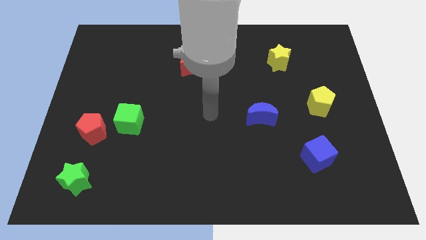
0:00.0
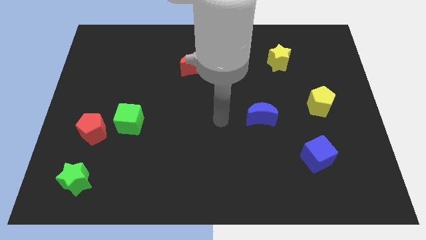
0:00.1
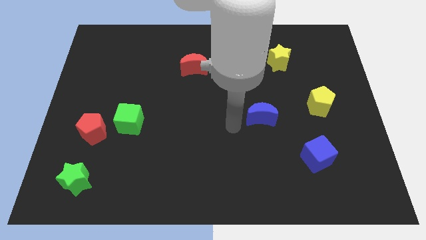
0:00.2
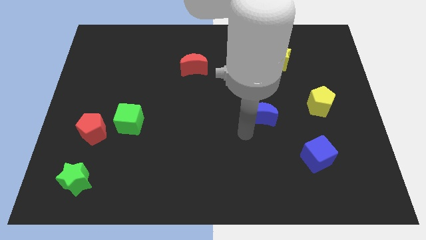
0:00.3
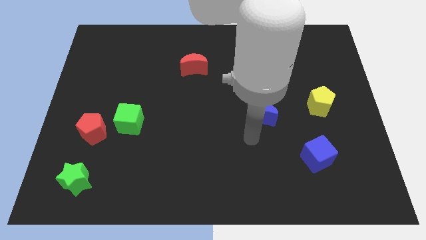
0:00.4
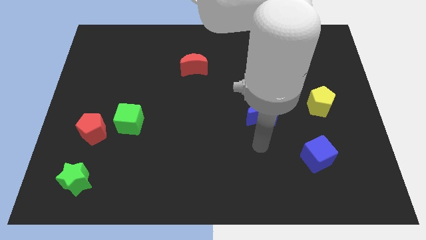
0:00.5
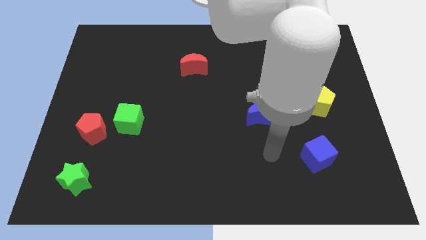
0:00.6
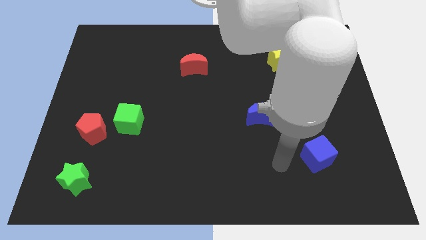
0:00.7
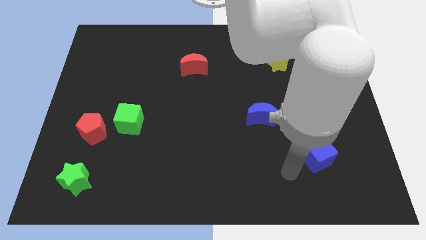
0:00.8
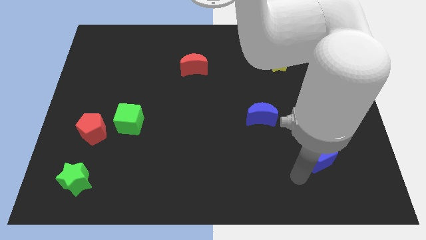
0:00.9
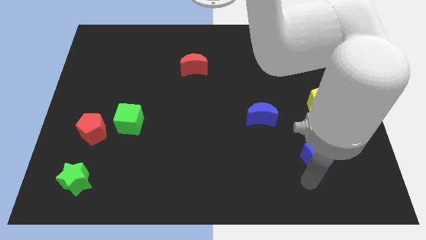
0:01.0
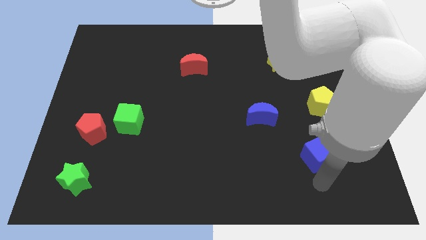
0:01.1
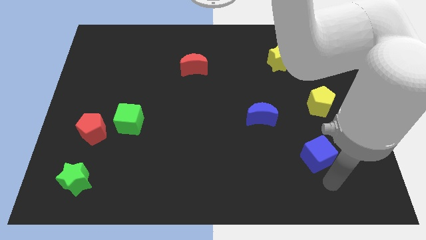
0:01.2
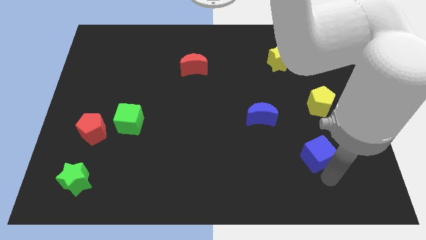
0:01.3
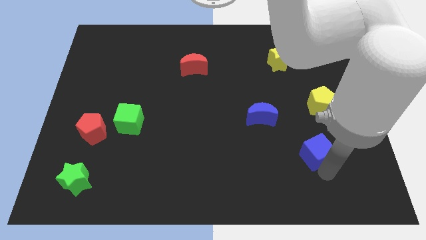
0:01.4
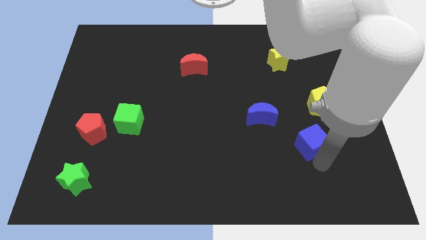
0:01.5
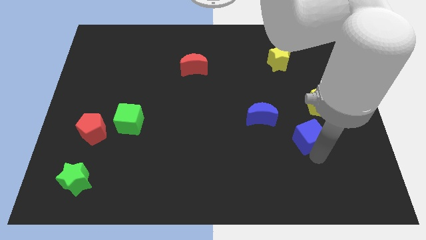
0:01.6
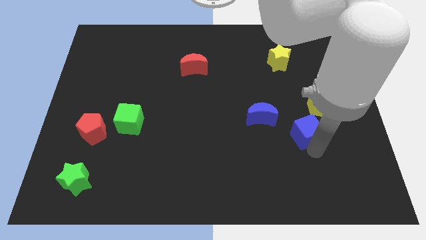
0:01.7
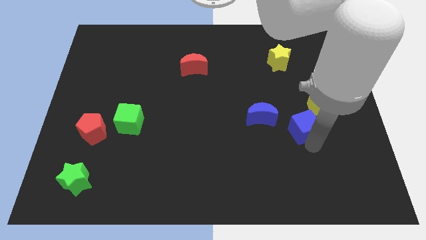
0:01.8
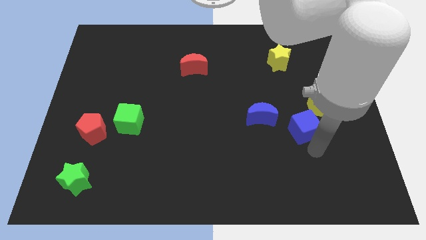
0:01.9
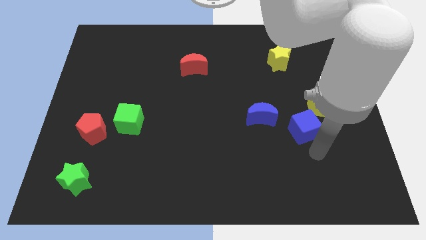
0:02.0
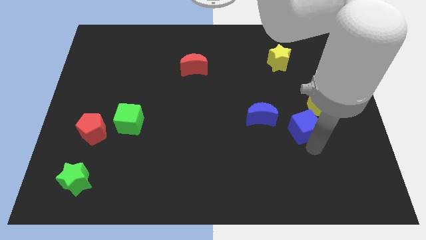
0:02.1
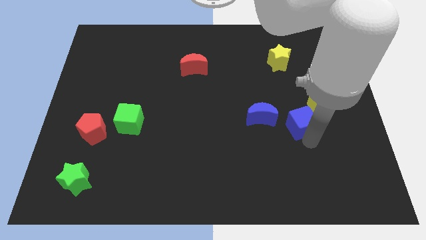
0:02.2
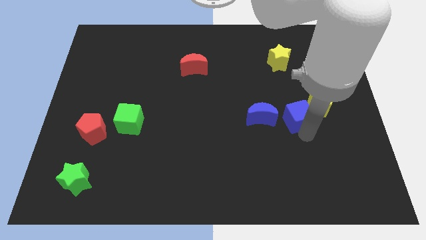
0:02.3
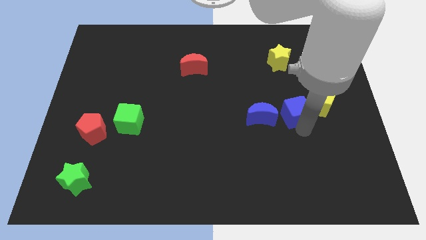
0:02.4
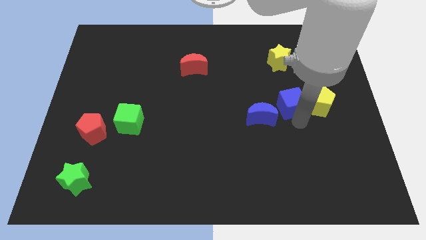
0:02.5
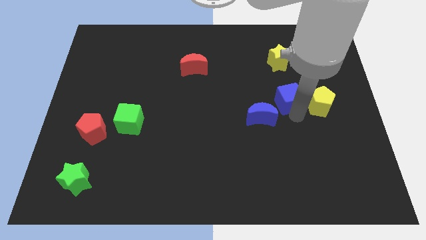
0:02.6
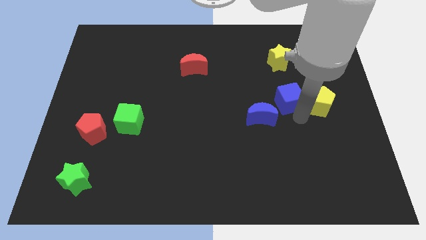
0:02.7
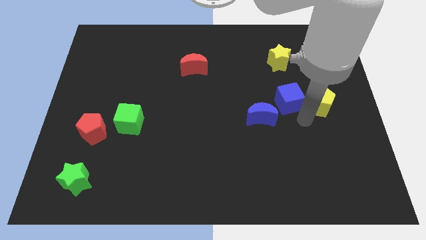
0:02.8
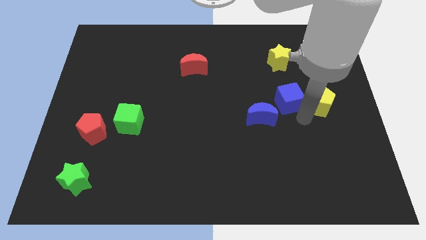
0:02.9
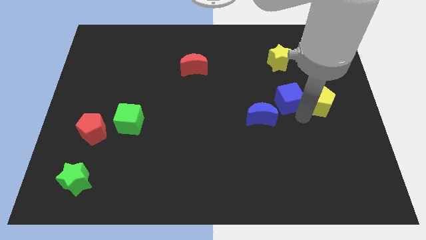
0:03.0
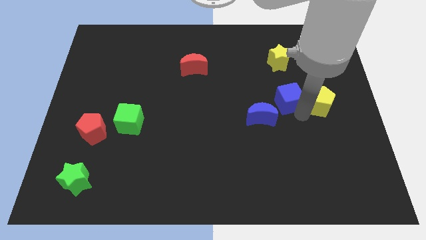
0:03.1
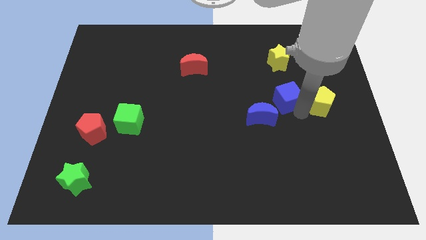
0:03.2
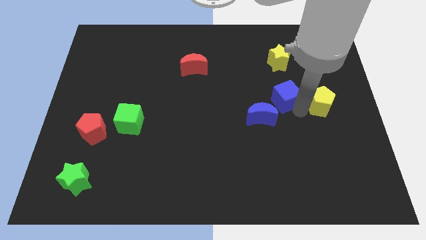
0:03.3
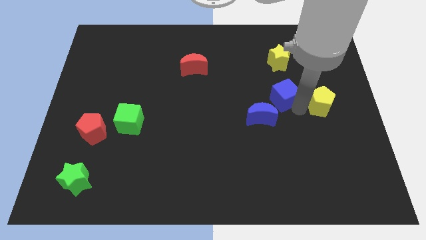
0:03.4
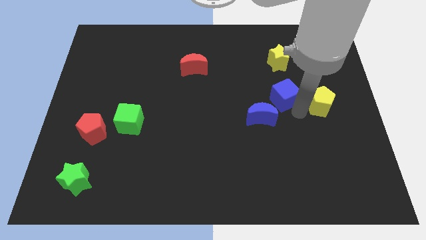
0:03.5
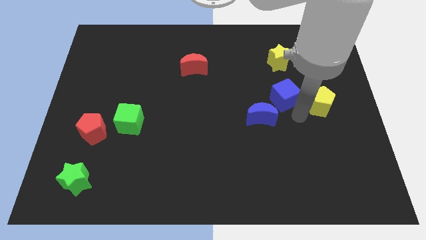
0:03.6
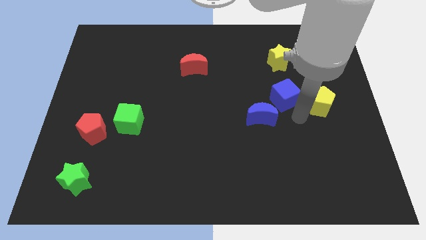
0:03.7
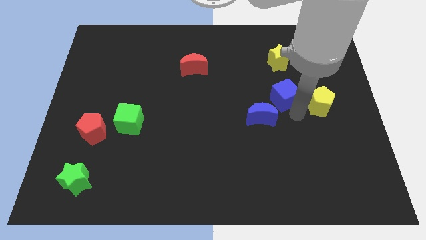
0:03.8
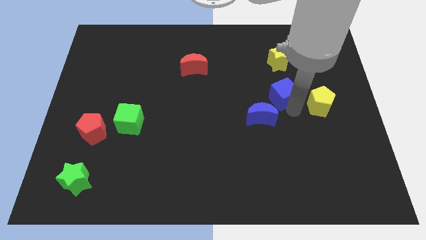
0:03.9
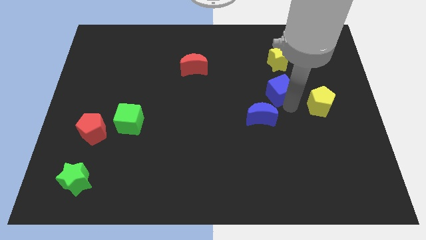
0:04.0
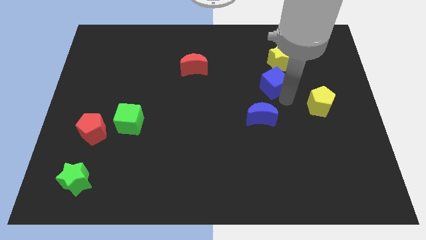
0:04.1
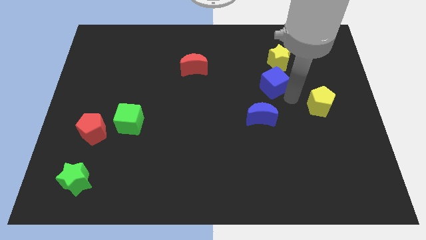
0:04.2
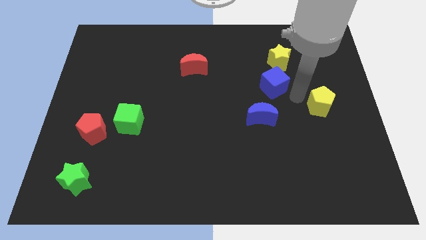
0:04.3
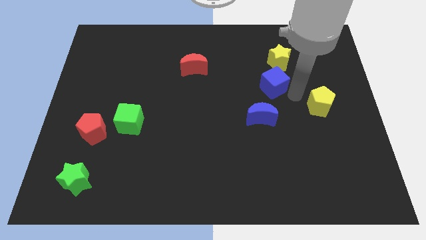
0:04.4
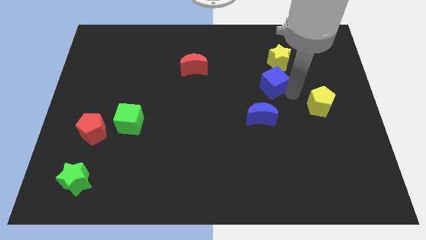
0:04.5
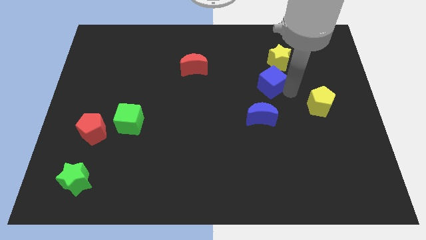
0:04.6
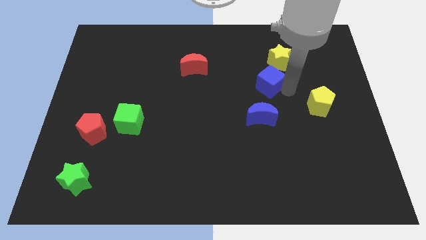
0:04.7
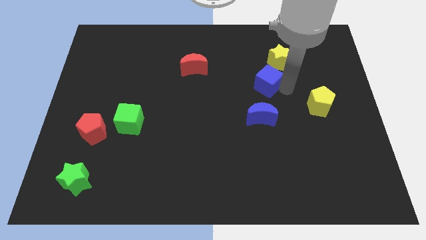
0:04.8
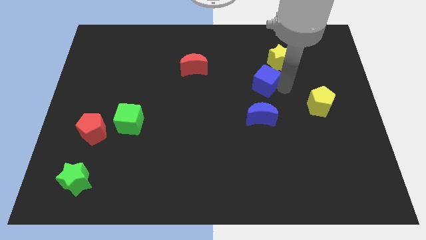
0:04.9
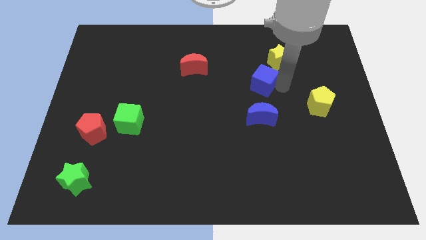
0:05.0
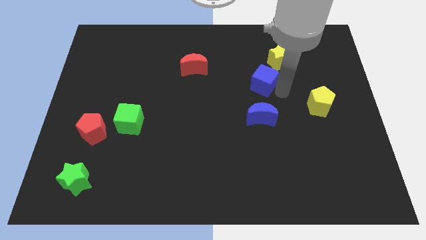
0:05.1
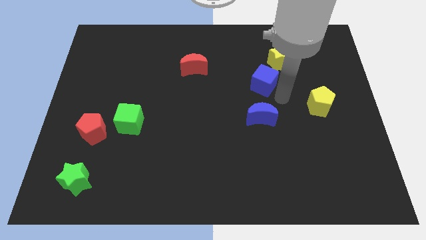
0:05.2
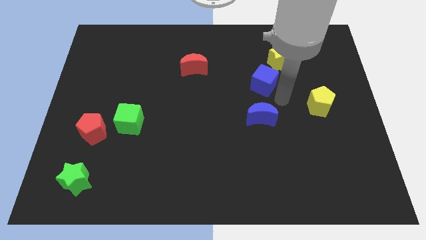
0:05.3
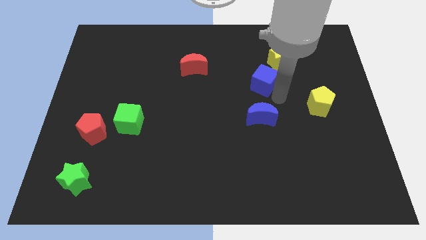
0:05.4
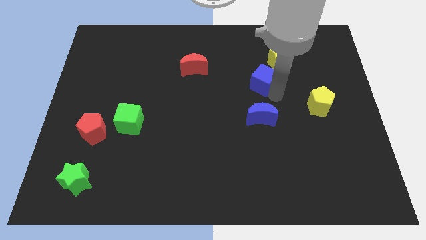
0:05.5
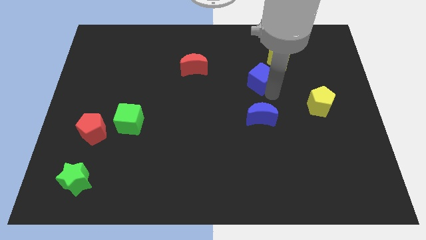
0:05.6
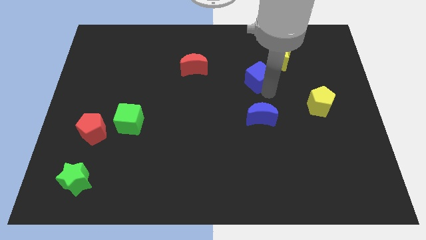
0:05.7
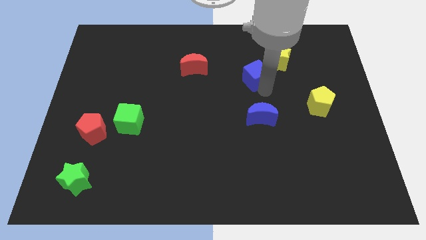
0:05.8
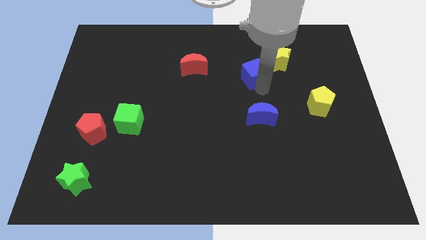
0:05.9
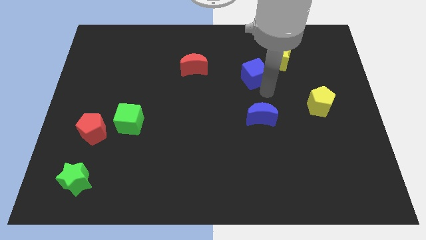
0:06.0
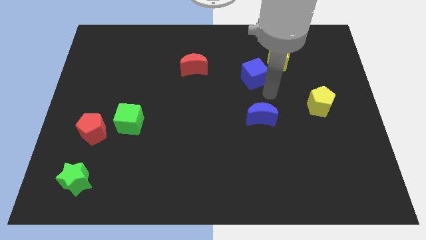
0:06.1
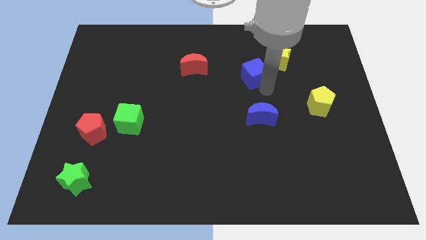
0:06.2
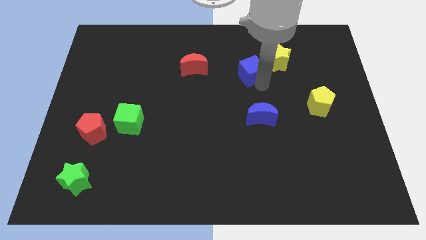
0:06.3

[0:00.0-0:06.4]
push the blue cube just left of the yellow star

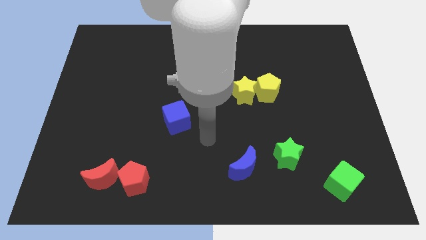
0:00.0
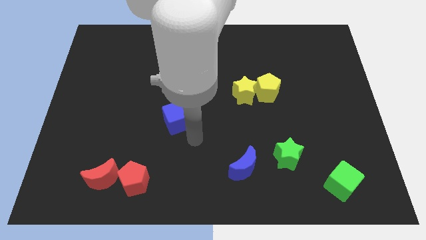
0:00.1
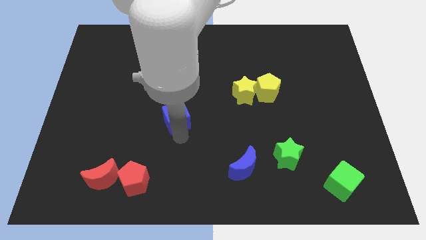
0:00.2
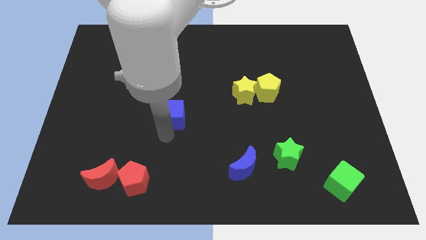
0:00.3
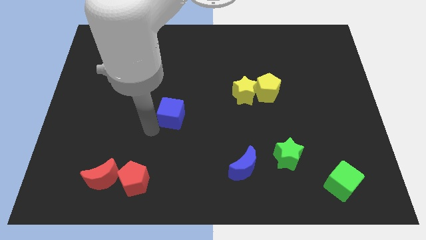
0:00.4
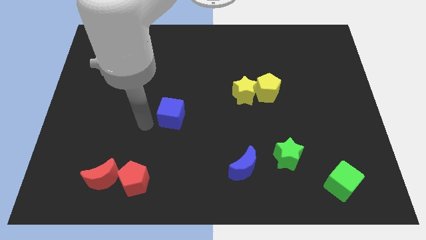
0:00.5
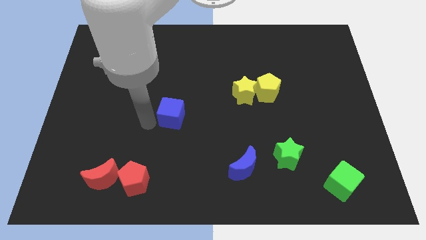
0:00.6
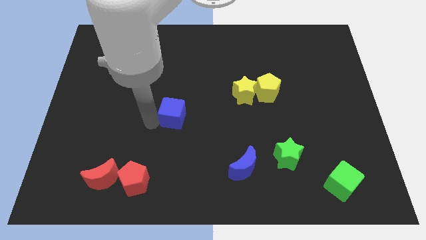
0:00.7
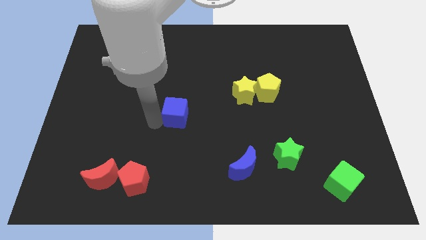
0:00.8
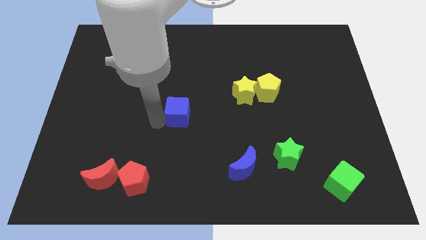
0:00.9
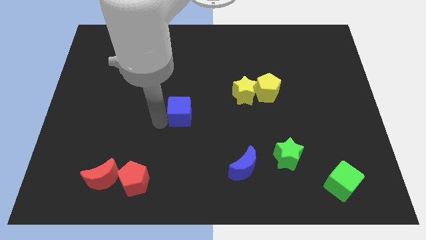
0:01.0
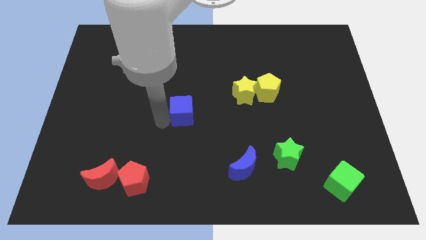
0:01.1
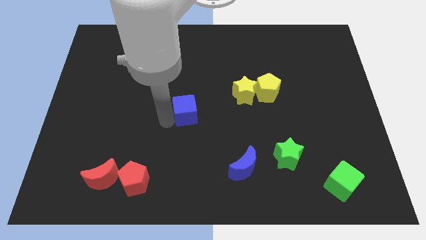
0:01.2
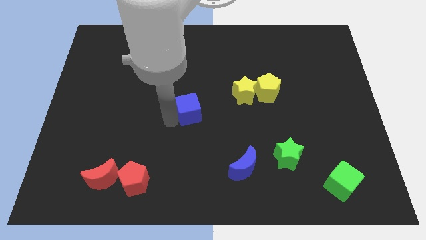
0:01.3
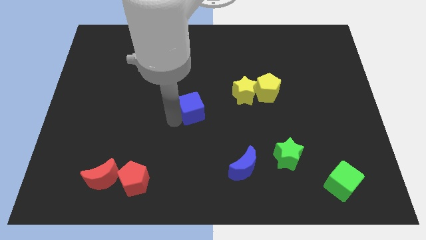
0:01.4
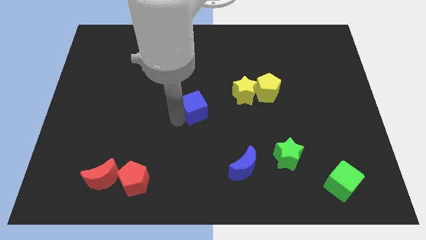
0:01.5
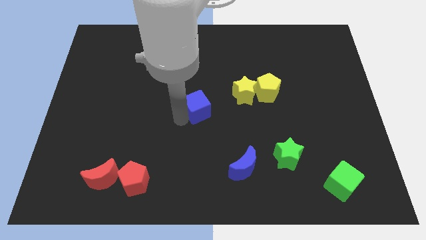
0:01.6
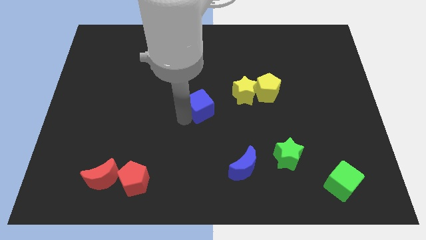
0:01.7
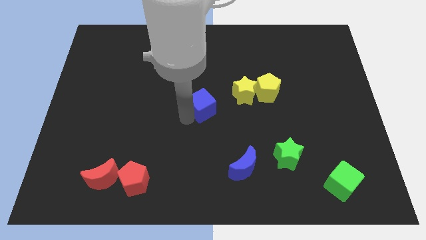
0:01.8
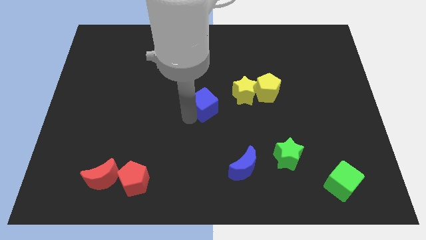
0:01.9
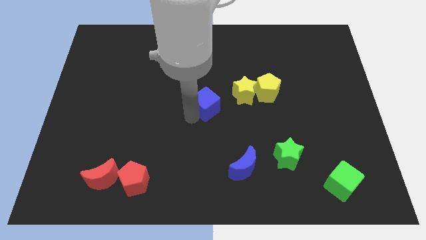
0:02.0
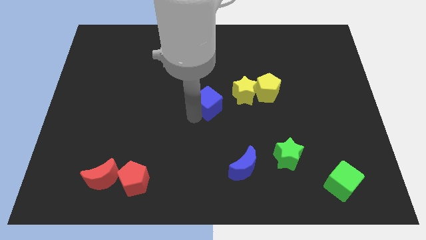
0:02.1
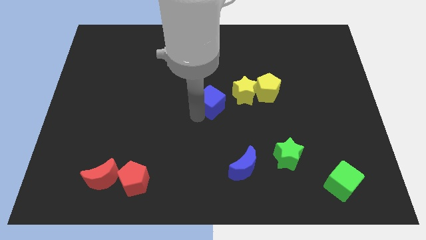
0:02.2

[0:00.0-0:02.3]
put the blue cube to the left side of the yellow pentagon
